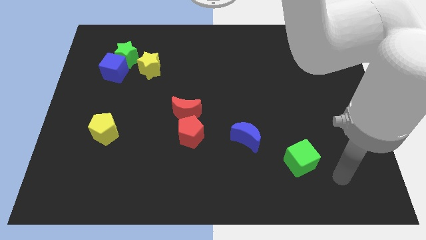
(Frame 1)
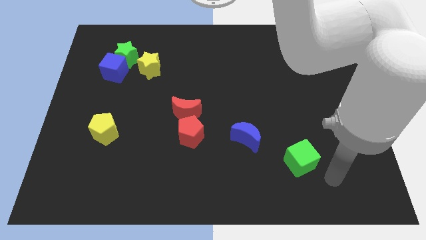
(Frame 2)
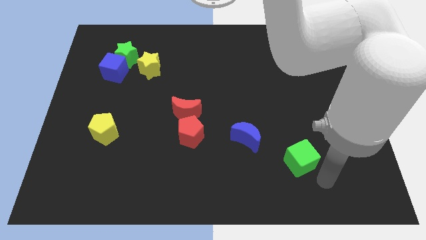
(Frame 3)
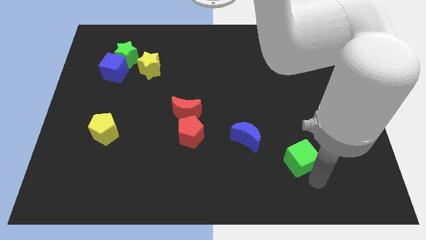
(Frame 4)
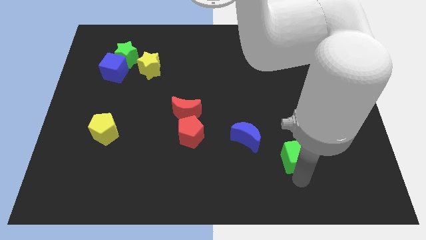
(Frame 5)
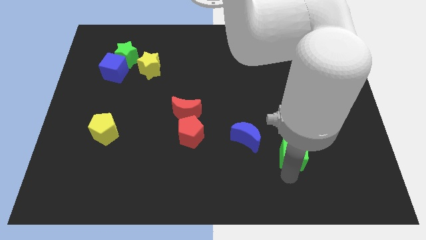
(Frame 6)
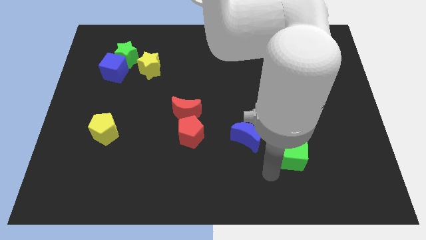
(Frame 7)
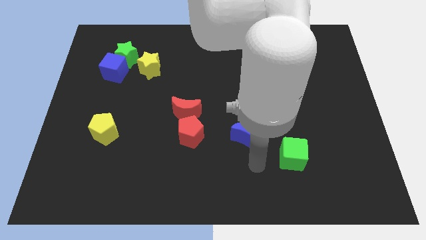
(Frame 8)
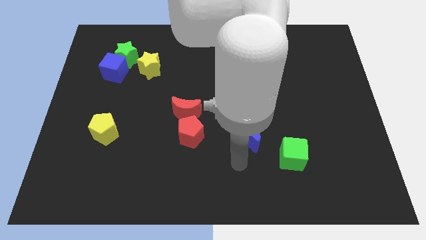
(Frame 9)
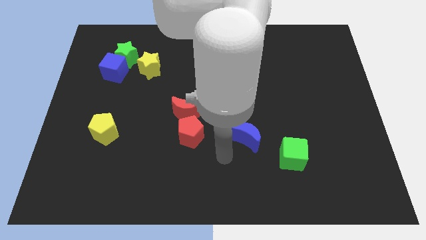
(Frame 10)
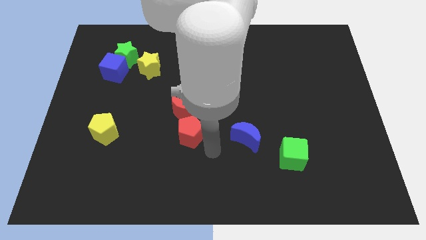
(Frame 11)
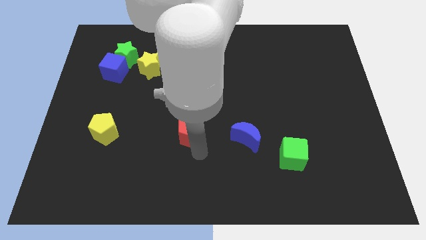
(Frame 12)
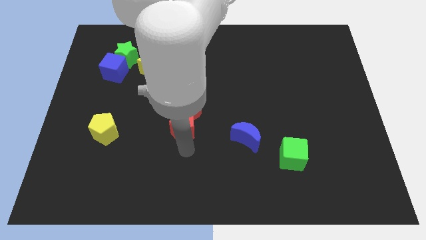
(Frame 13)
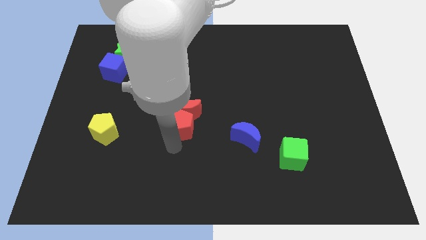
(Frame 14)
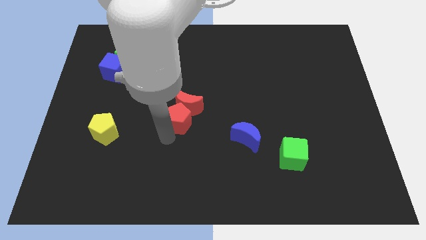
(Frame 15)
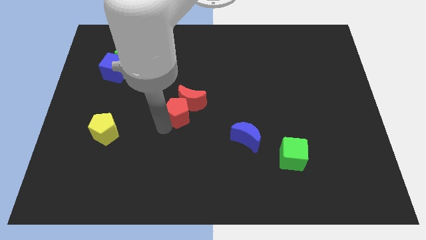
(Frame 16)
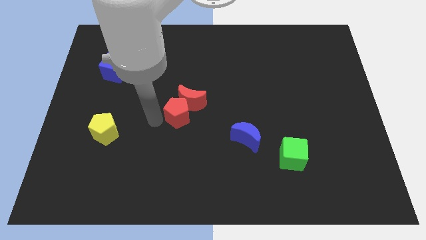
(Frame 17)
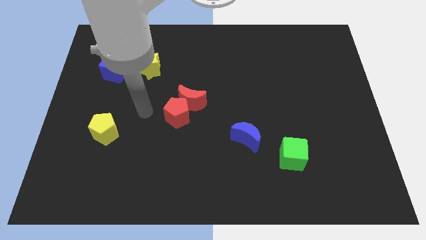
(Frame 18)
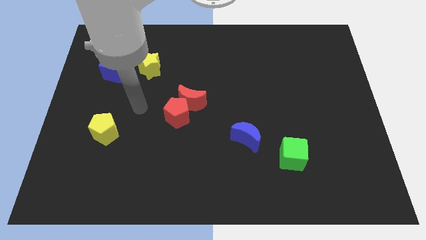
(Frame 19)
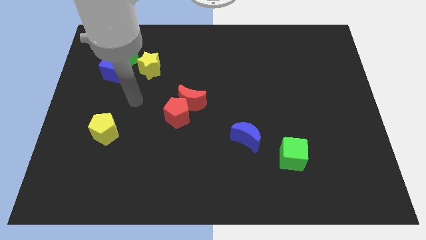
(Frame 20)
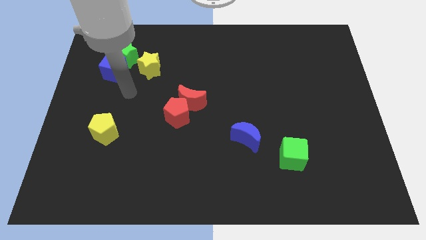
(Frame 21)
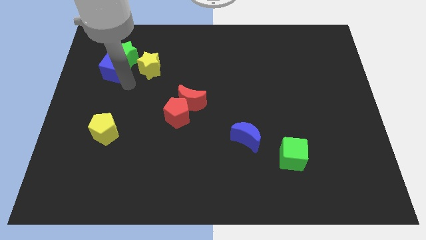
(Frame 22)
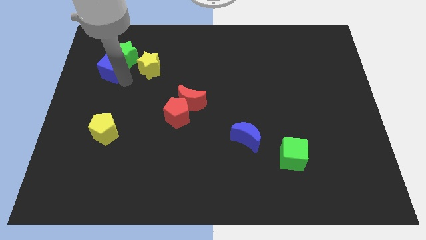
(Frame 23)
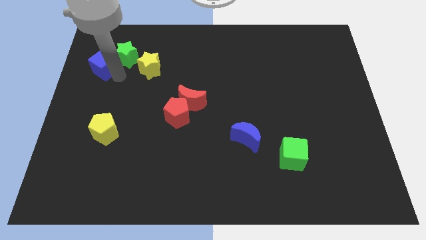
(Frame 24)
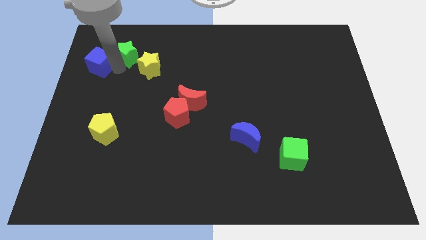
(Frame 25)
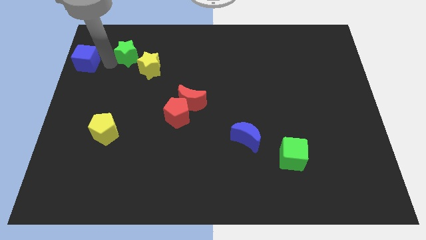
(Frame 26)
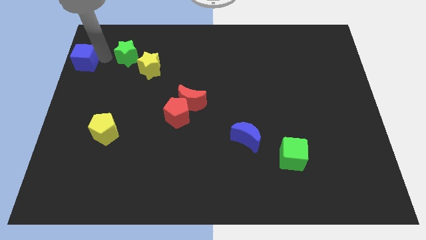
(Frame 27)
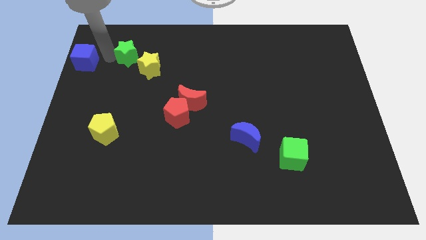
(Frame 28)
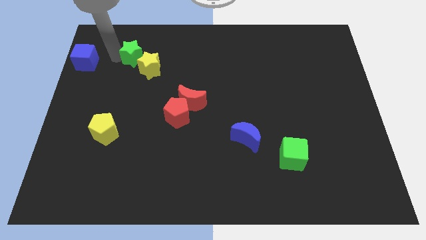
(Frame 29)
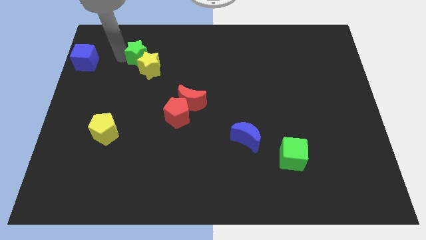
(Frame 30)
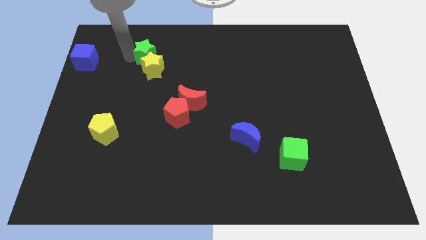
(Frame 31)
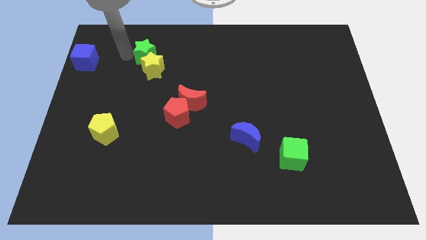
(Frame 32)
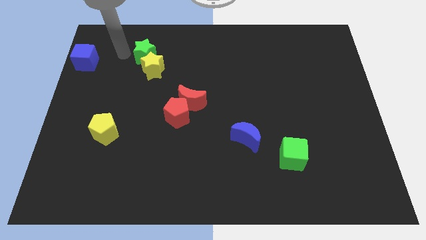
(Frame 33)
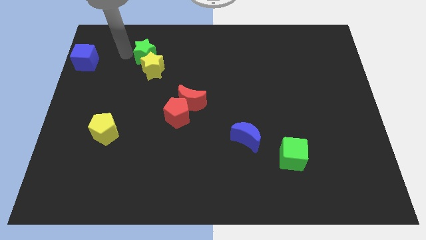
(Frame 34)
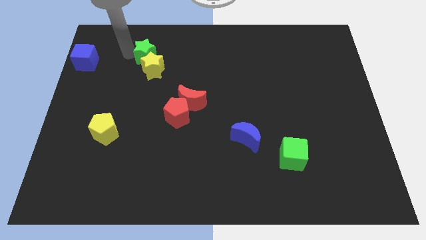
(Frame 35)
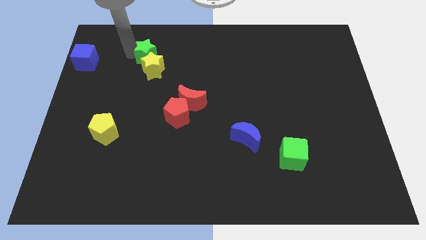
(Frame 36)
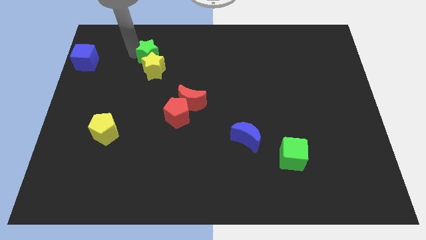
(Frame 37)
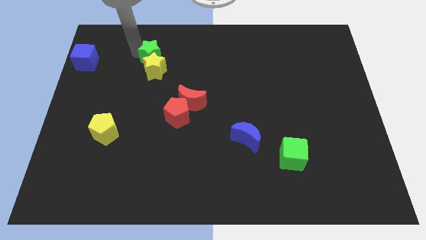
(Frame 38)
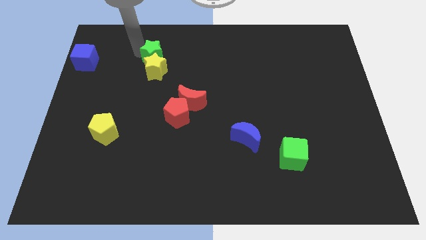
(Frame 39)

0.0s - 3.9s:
move the green star a little bit to the right

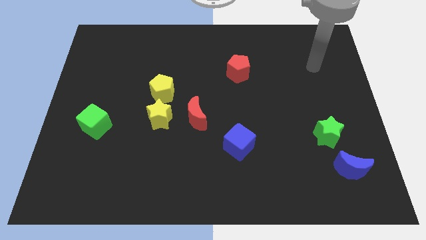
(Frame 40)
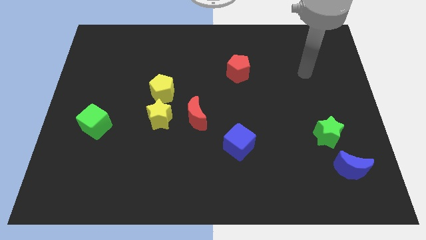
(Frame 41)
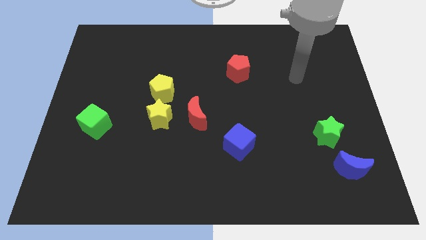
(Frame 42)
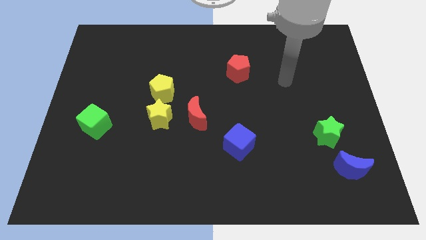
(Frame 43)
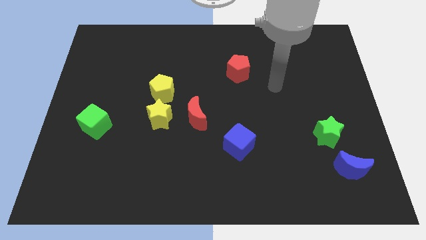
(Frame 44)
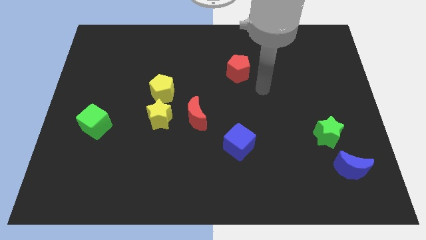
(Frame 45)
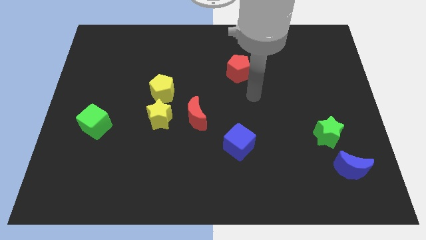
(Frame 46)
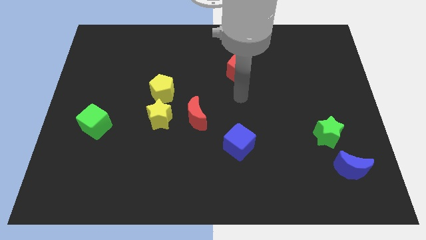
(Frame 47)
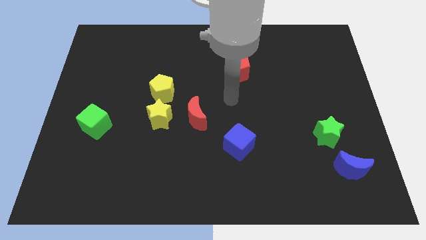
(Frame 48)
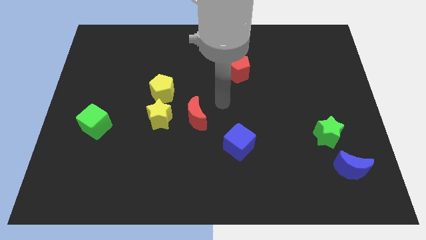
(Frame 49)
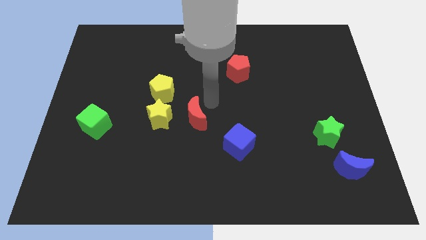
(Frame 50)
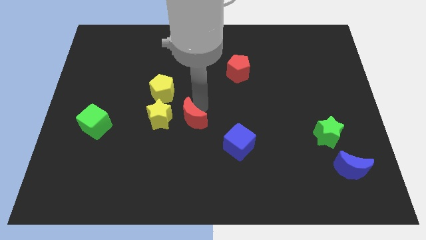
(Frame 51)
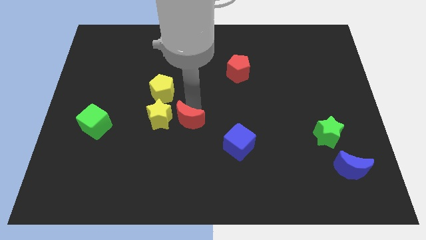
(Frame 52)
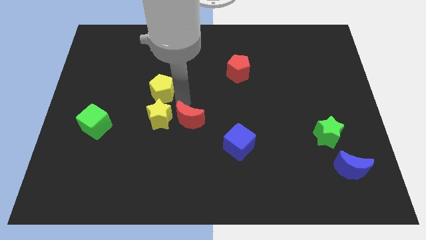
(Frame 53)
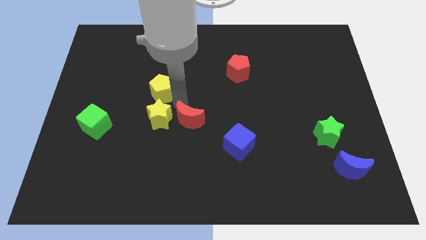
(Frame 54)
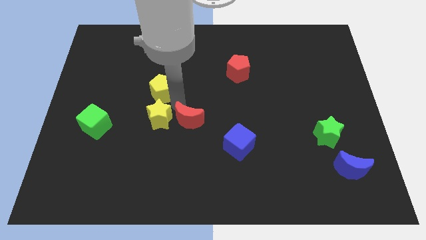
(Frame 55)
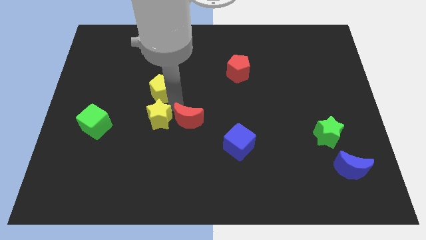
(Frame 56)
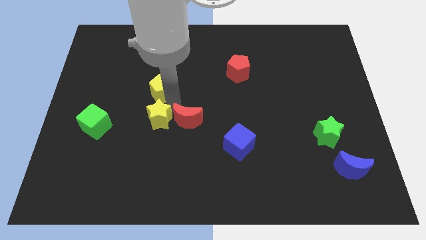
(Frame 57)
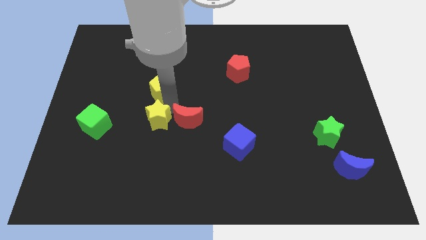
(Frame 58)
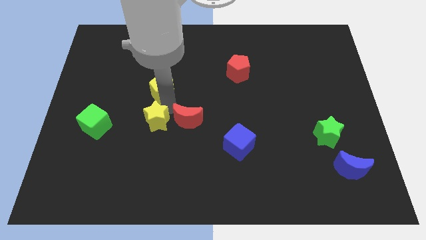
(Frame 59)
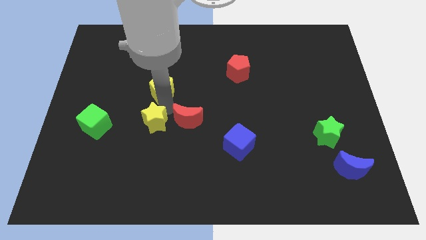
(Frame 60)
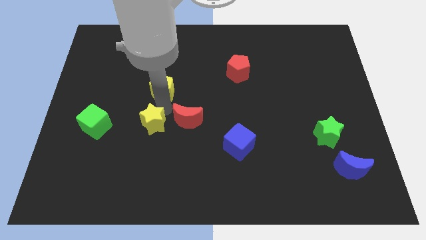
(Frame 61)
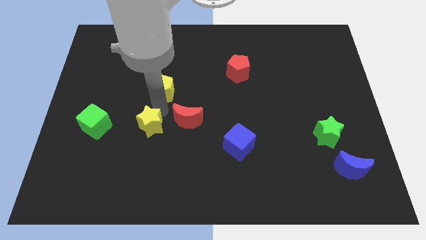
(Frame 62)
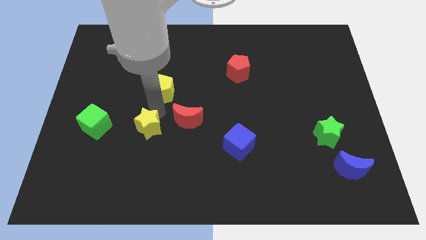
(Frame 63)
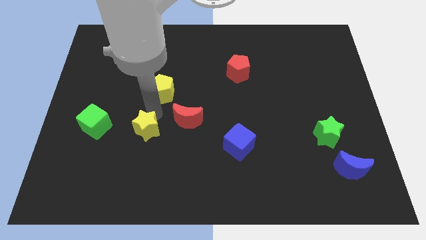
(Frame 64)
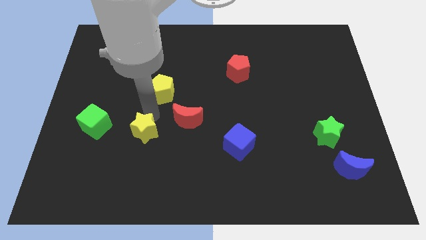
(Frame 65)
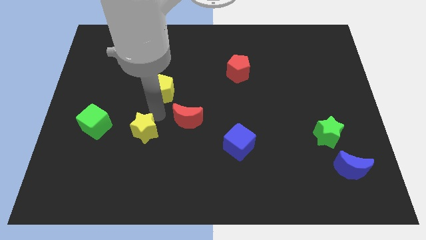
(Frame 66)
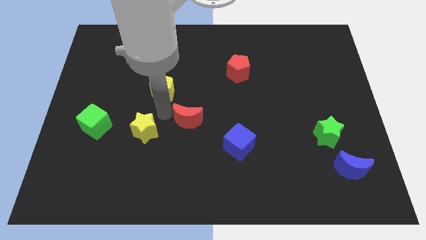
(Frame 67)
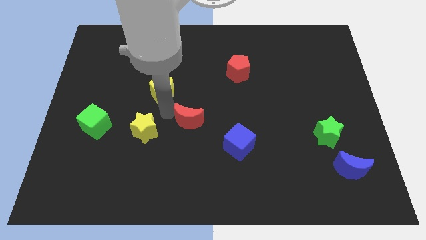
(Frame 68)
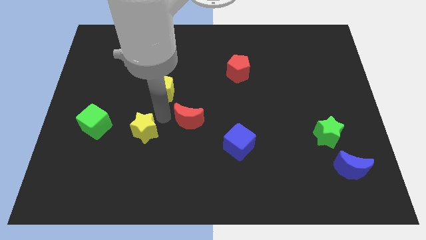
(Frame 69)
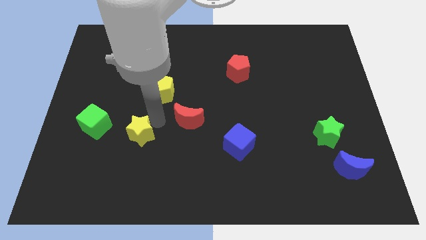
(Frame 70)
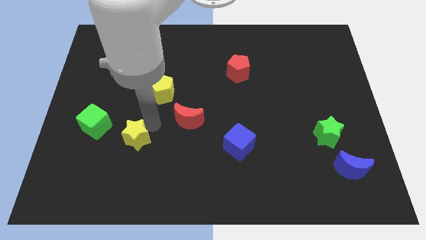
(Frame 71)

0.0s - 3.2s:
move the yellow star a little diagonally down and to the left

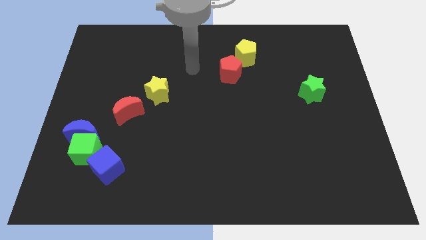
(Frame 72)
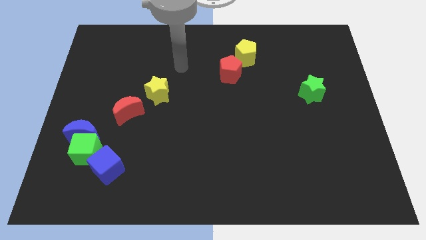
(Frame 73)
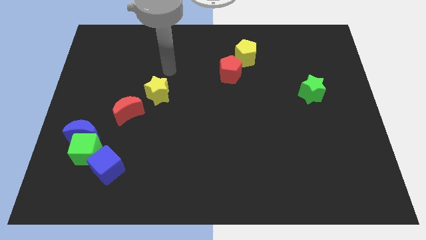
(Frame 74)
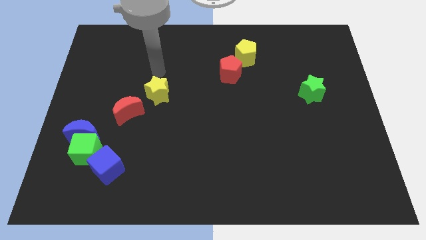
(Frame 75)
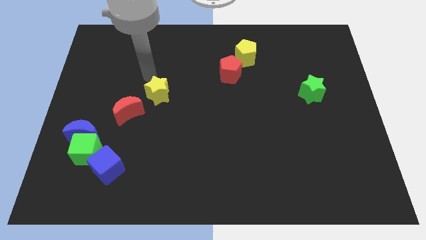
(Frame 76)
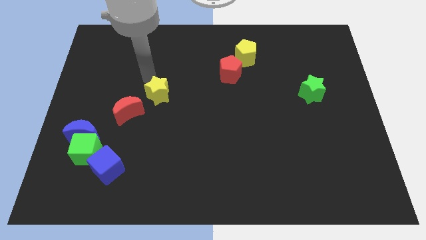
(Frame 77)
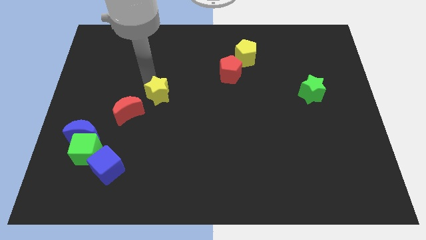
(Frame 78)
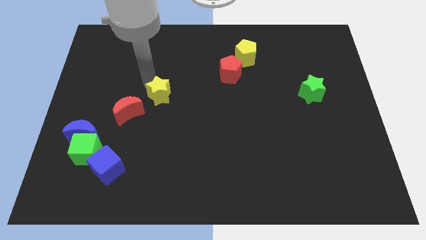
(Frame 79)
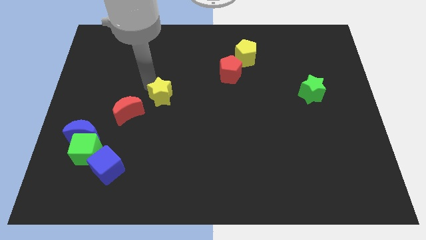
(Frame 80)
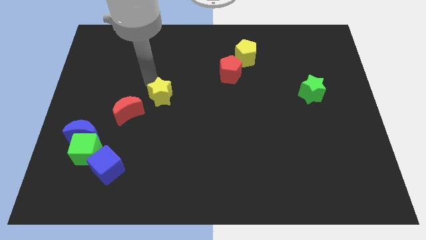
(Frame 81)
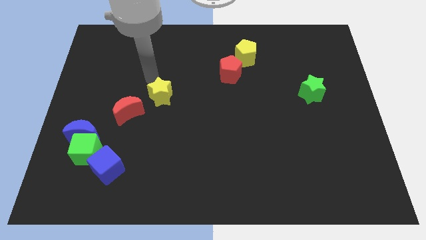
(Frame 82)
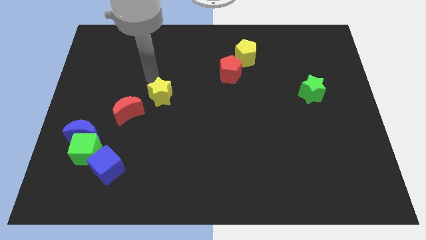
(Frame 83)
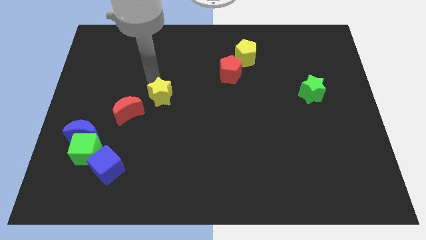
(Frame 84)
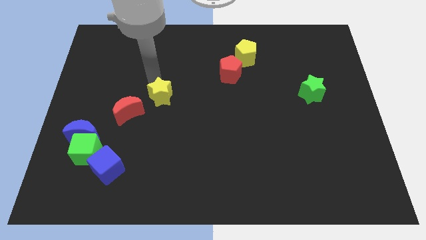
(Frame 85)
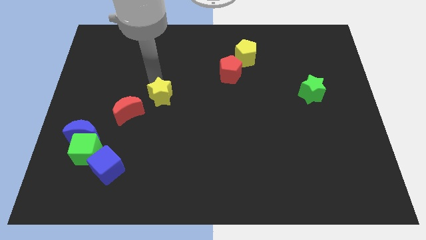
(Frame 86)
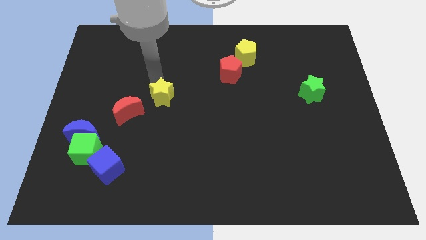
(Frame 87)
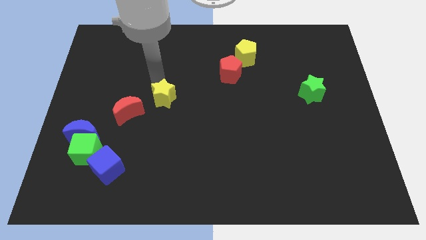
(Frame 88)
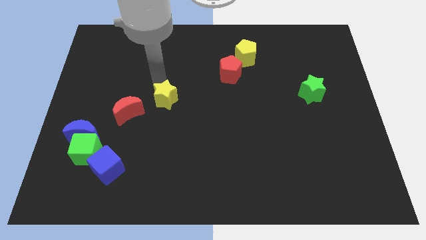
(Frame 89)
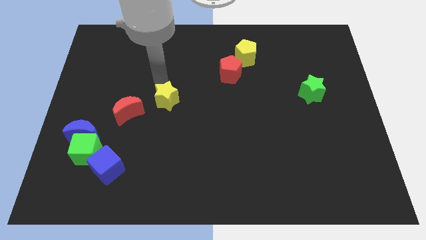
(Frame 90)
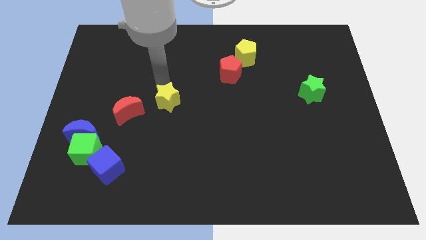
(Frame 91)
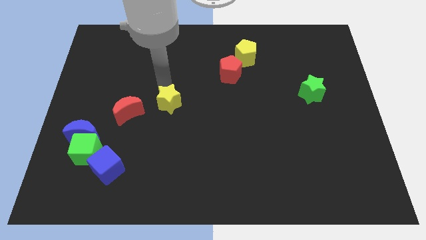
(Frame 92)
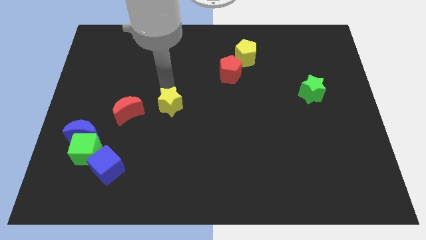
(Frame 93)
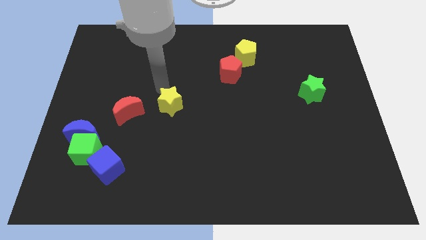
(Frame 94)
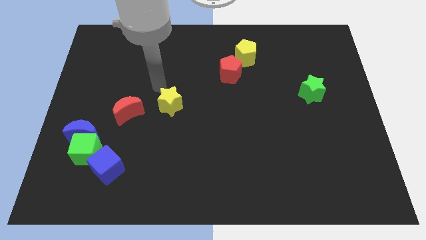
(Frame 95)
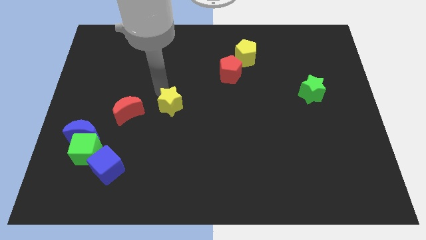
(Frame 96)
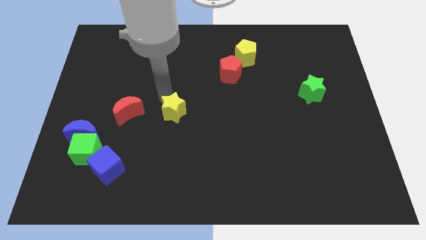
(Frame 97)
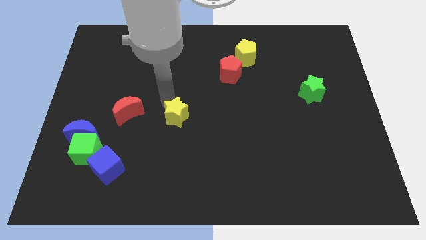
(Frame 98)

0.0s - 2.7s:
slightly slide the yellow star diagonally downwards and to the right
